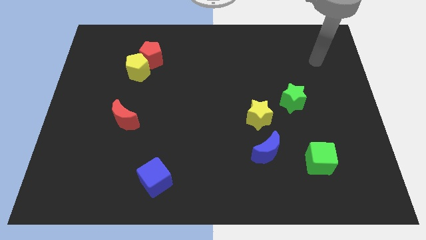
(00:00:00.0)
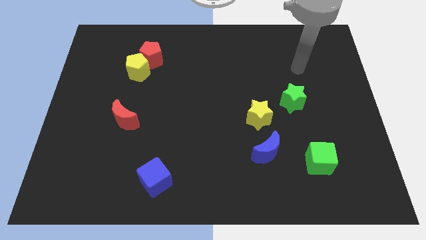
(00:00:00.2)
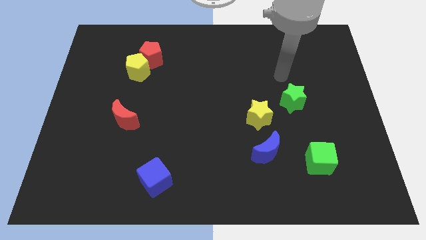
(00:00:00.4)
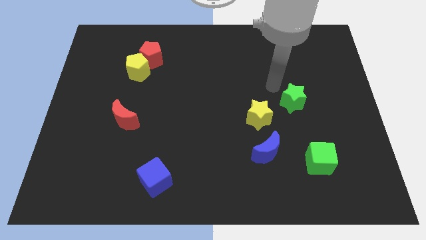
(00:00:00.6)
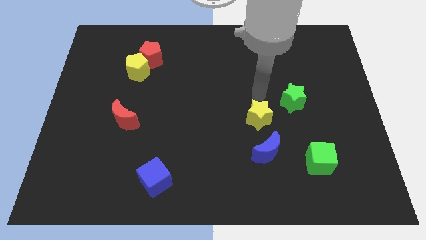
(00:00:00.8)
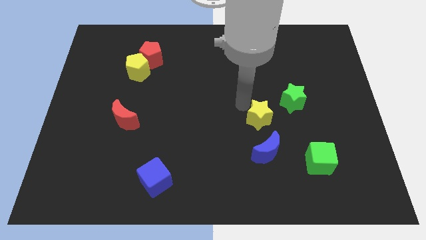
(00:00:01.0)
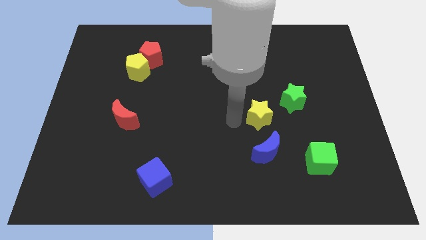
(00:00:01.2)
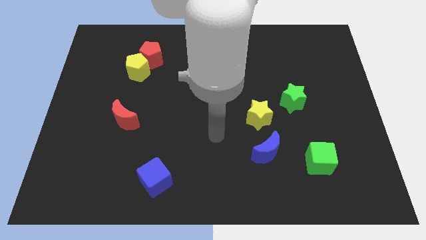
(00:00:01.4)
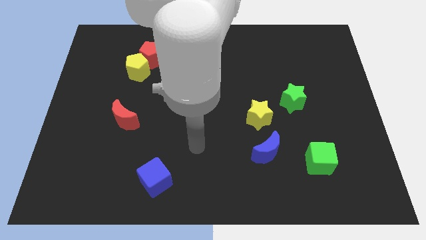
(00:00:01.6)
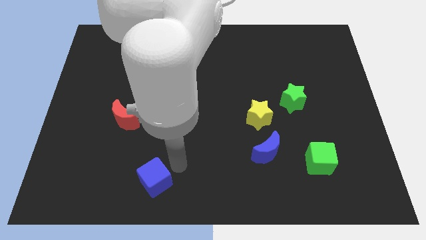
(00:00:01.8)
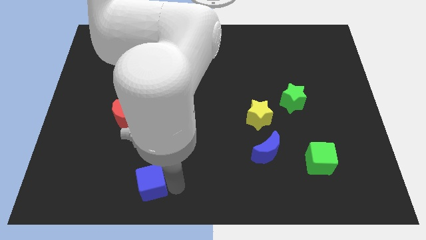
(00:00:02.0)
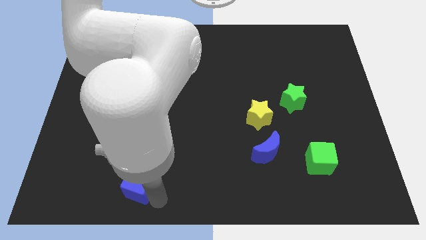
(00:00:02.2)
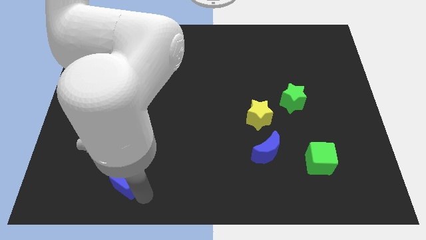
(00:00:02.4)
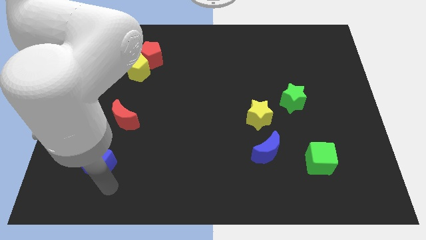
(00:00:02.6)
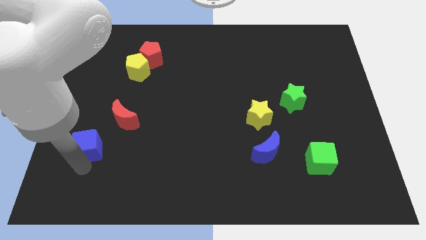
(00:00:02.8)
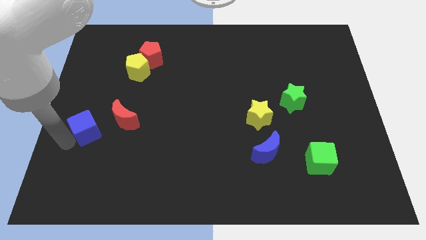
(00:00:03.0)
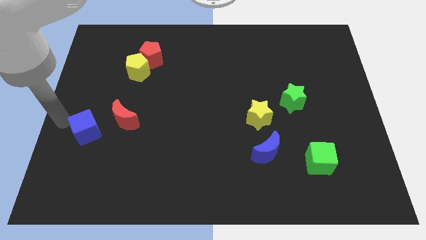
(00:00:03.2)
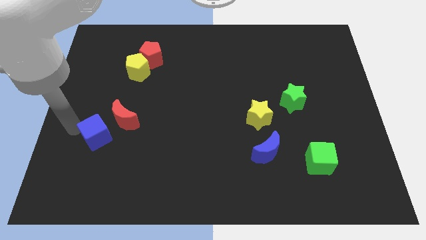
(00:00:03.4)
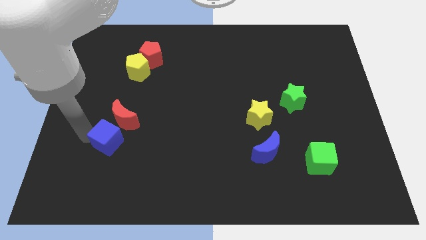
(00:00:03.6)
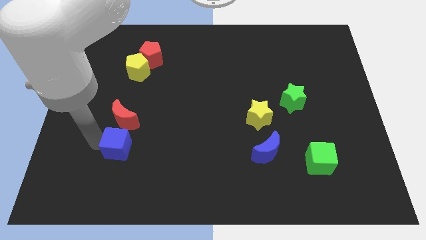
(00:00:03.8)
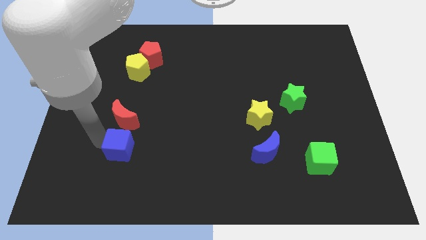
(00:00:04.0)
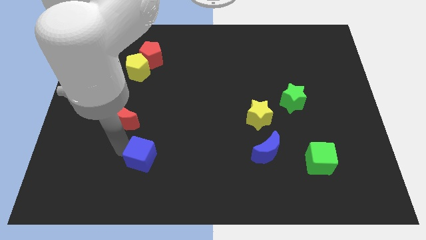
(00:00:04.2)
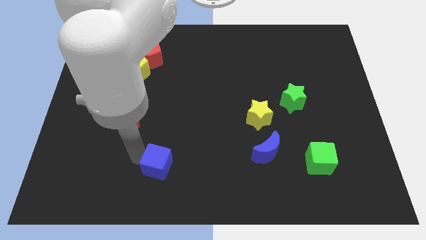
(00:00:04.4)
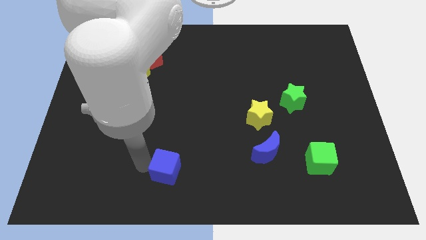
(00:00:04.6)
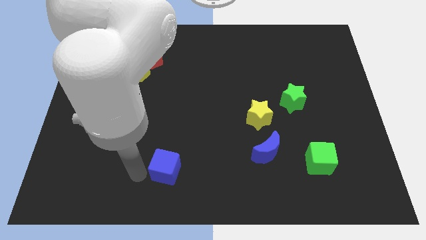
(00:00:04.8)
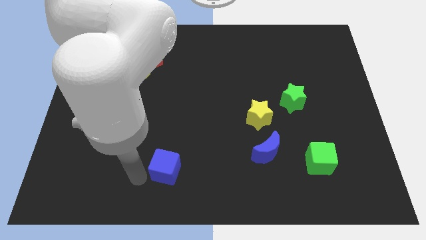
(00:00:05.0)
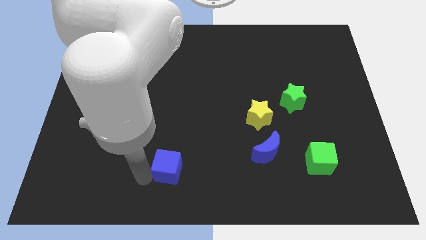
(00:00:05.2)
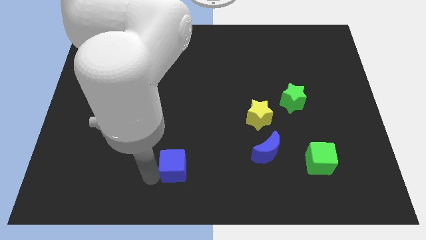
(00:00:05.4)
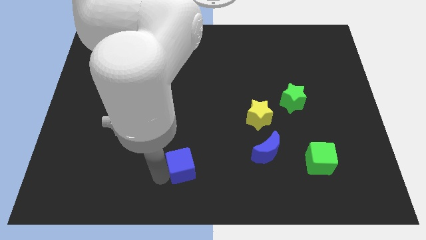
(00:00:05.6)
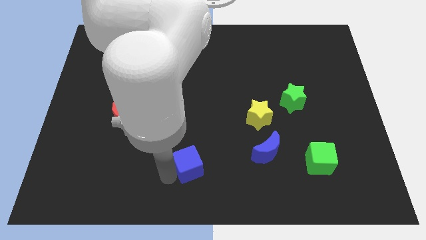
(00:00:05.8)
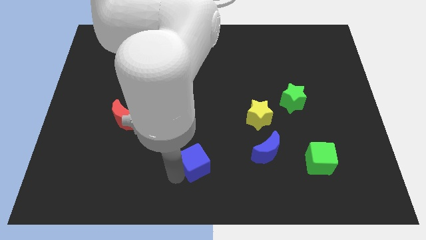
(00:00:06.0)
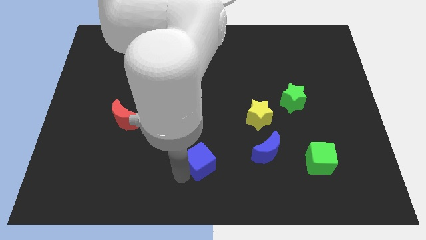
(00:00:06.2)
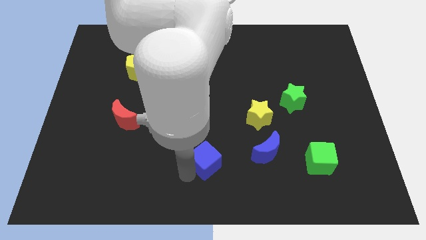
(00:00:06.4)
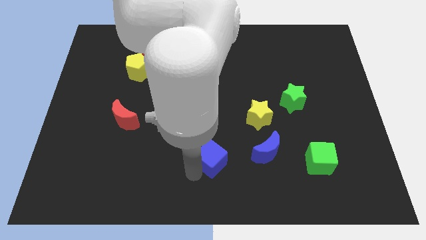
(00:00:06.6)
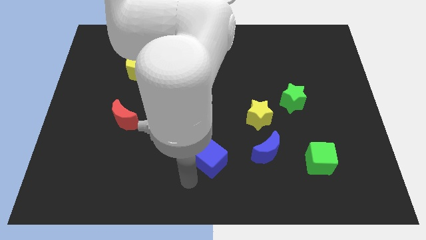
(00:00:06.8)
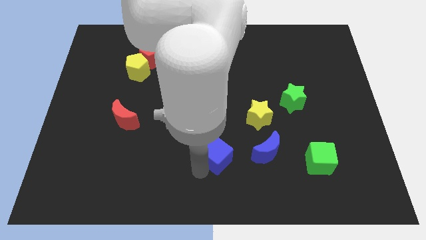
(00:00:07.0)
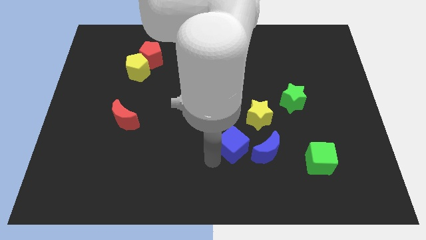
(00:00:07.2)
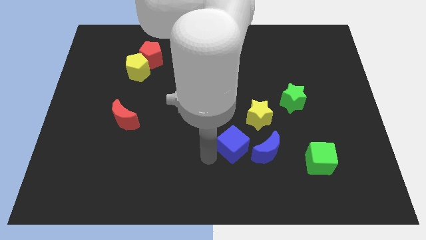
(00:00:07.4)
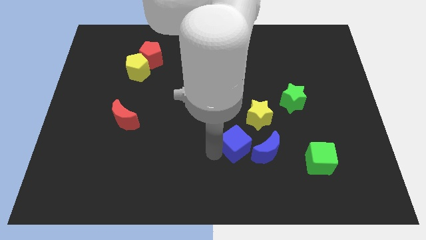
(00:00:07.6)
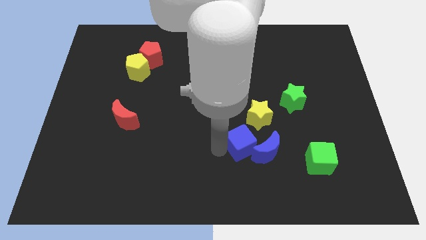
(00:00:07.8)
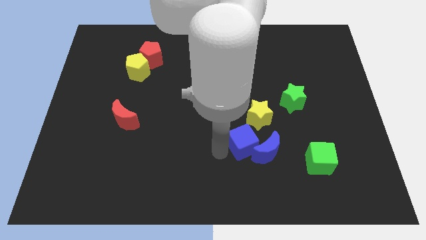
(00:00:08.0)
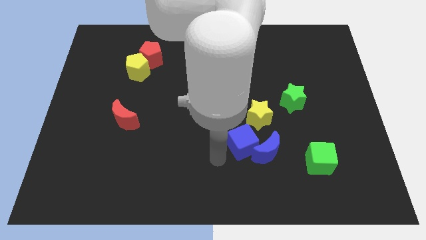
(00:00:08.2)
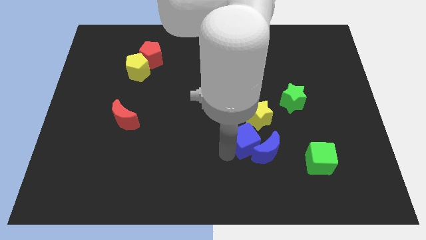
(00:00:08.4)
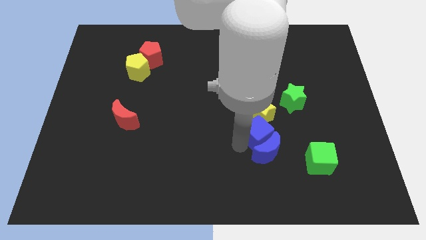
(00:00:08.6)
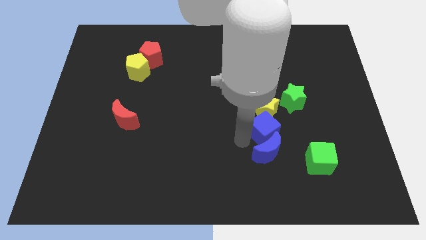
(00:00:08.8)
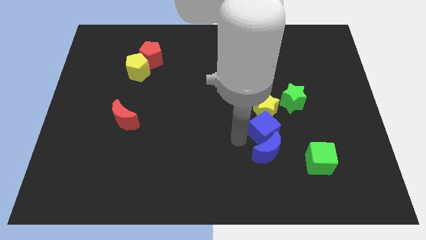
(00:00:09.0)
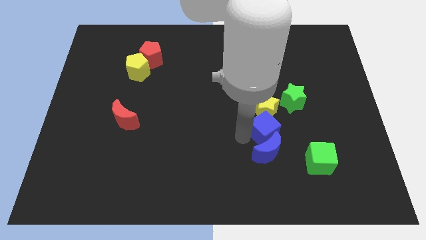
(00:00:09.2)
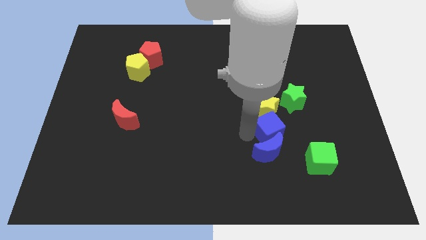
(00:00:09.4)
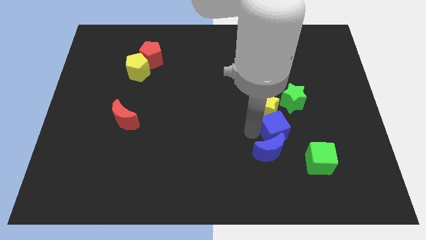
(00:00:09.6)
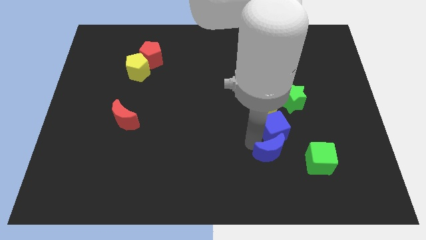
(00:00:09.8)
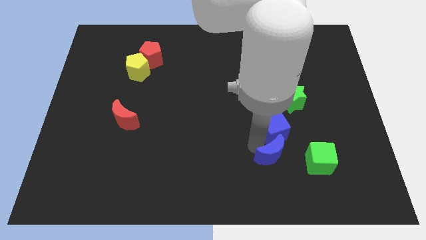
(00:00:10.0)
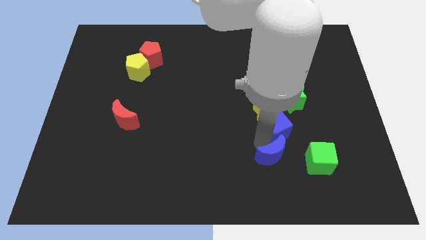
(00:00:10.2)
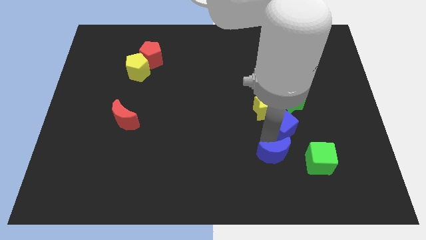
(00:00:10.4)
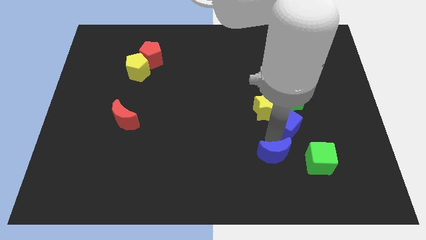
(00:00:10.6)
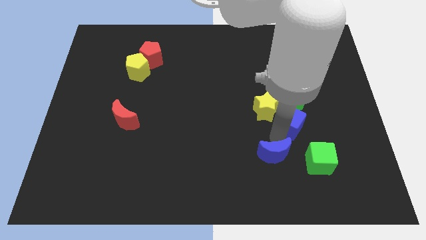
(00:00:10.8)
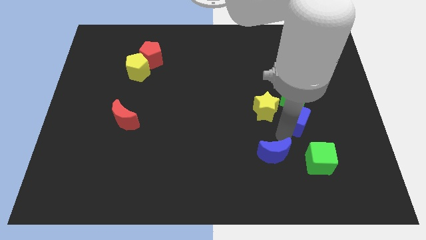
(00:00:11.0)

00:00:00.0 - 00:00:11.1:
put the blue cube next to the green star

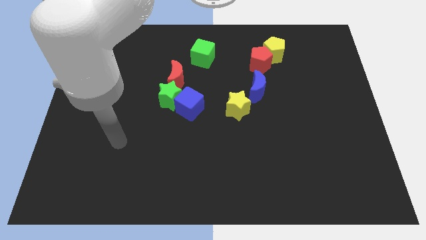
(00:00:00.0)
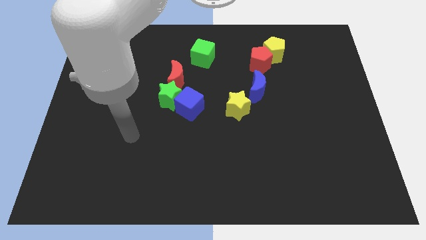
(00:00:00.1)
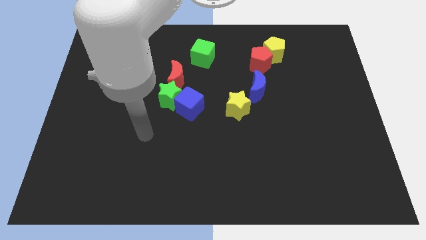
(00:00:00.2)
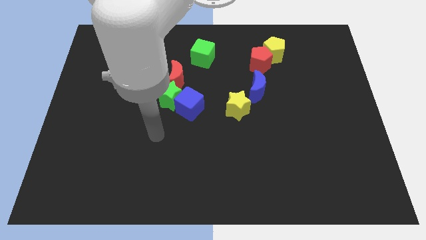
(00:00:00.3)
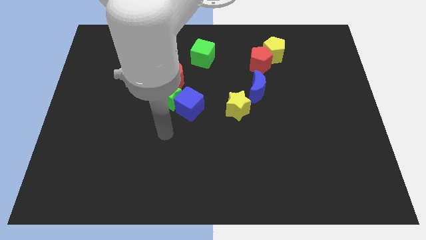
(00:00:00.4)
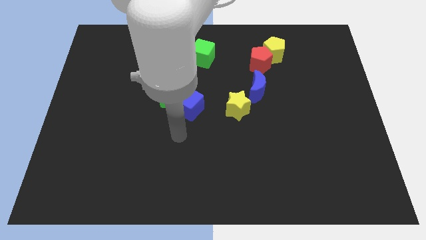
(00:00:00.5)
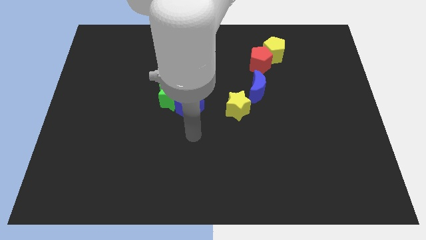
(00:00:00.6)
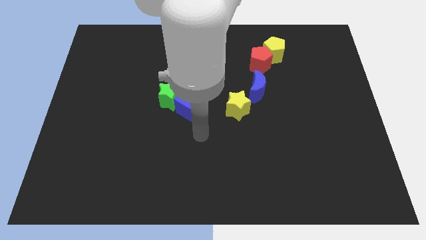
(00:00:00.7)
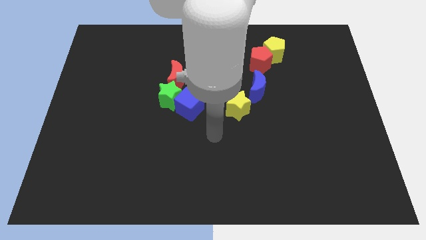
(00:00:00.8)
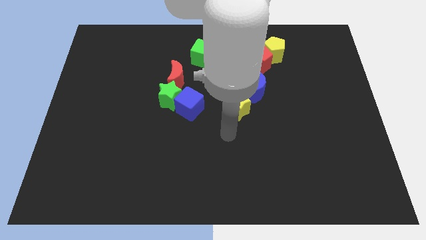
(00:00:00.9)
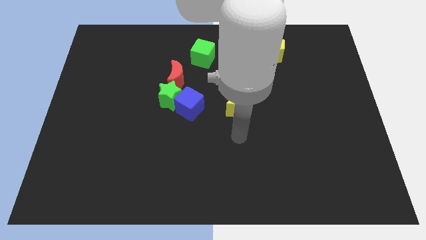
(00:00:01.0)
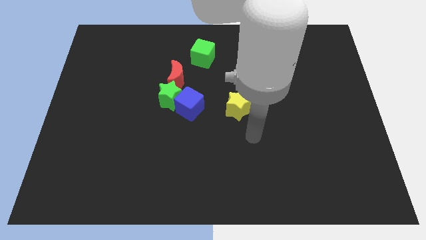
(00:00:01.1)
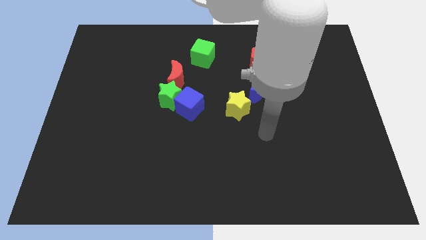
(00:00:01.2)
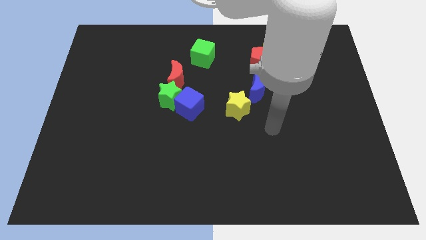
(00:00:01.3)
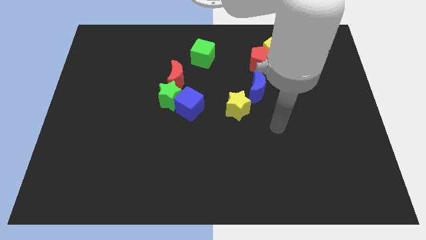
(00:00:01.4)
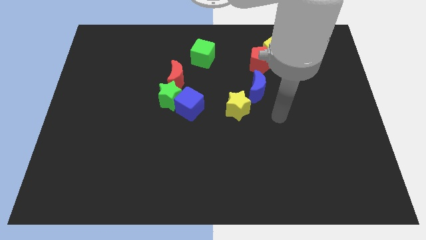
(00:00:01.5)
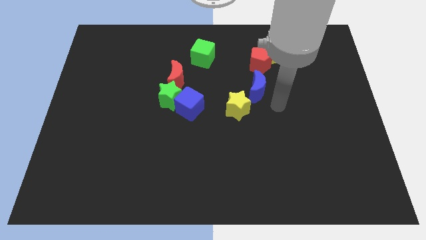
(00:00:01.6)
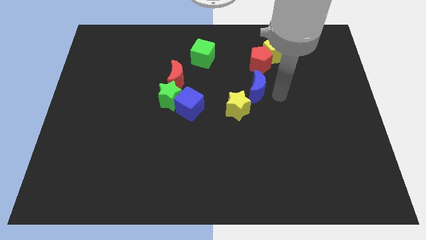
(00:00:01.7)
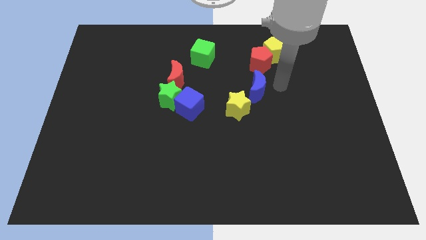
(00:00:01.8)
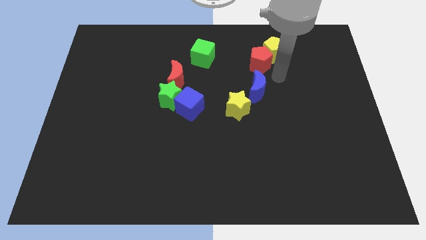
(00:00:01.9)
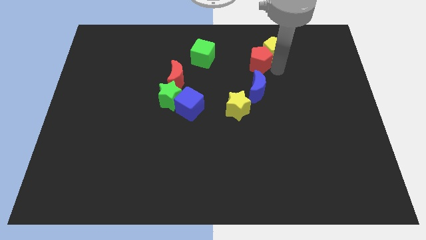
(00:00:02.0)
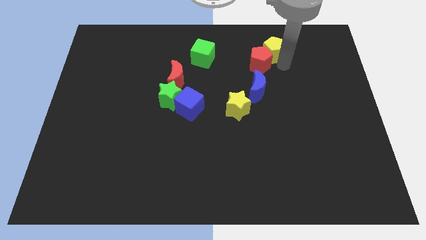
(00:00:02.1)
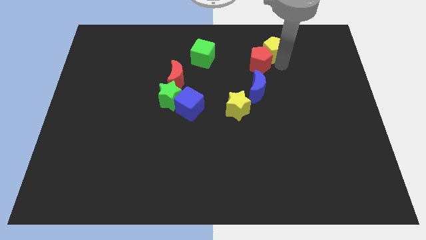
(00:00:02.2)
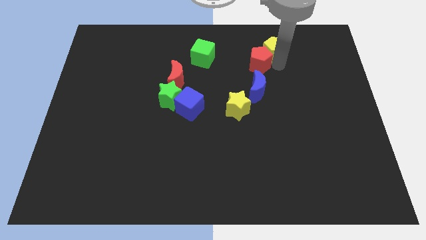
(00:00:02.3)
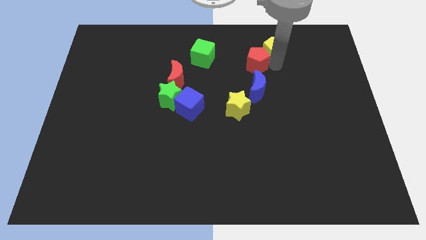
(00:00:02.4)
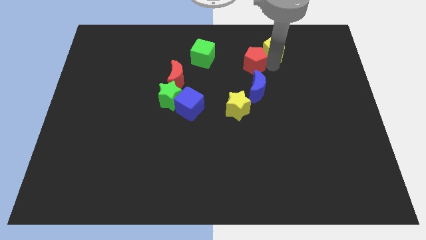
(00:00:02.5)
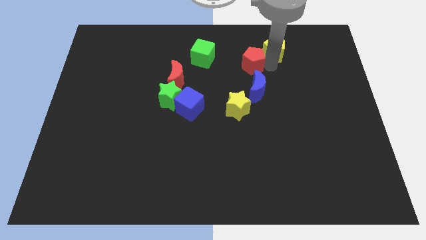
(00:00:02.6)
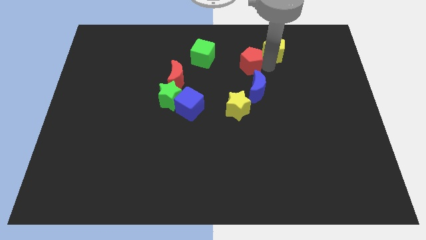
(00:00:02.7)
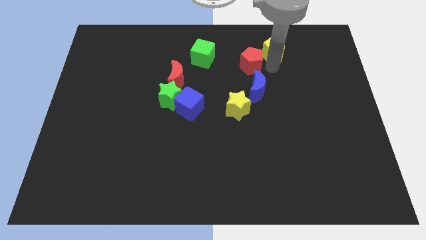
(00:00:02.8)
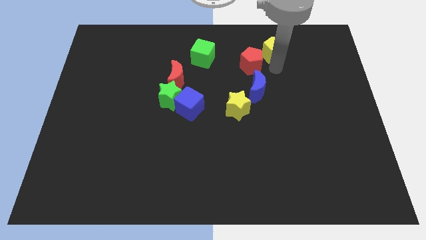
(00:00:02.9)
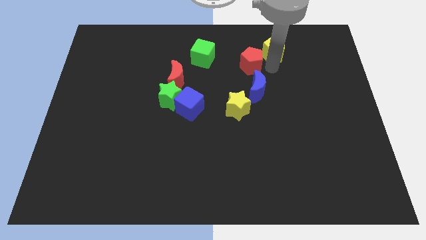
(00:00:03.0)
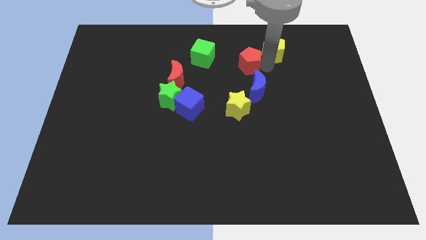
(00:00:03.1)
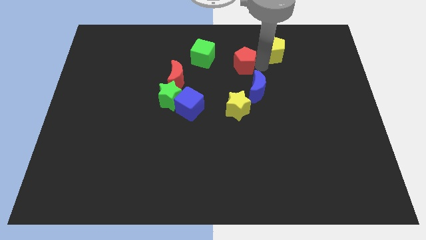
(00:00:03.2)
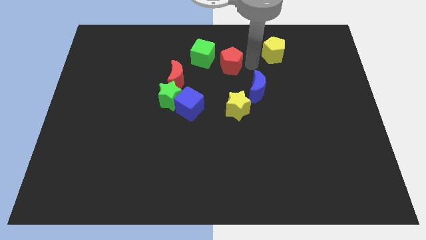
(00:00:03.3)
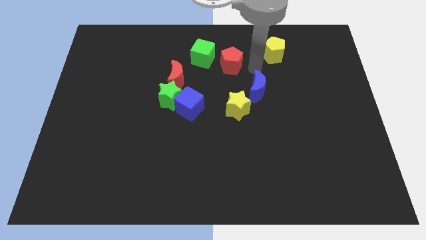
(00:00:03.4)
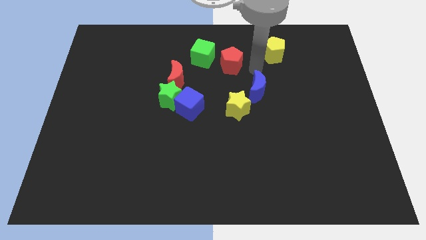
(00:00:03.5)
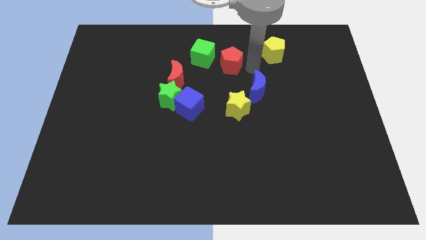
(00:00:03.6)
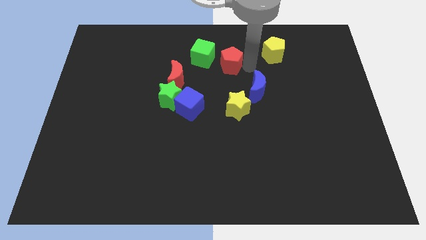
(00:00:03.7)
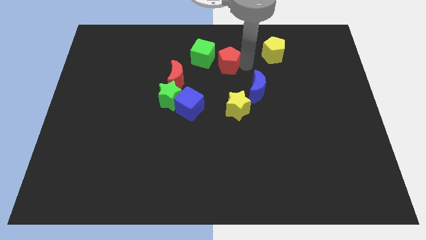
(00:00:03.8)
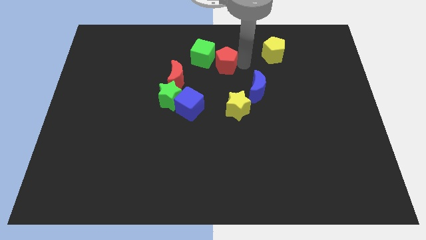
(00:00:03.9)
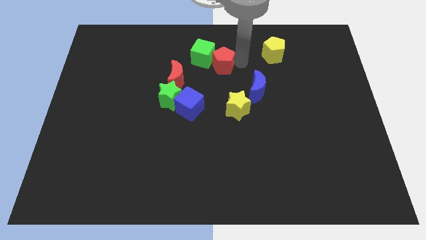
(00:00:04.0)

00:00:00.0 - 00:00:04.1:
push the red pentagon towards the green cube
